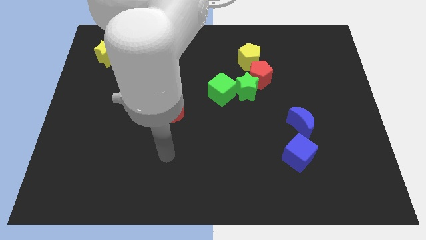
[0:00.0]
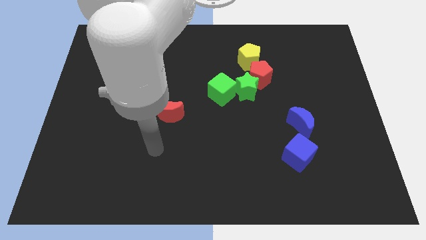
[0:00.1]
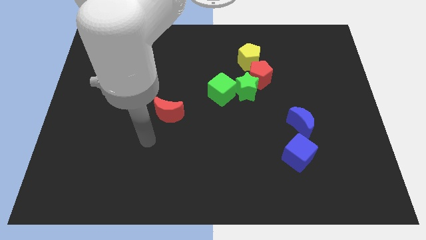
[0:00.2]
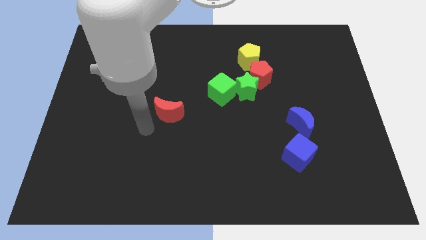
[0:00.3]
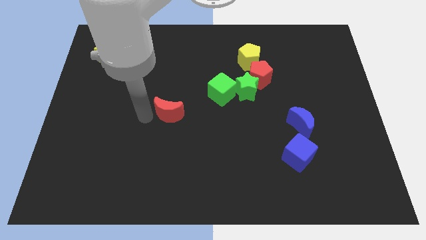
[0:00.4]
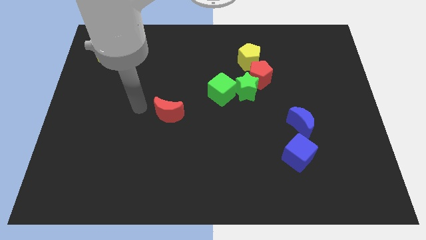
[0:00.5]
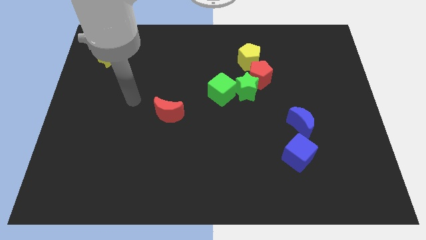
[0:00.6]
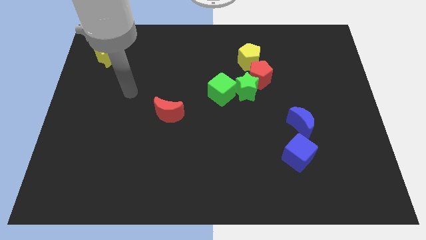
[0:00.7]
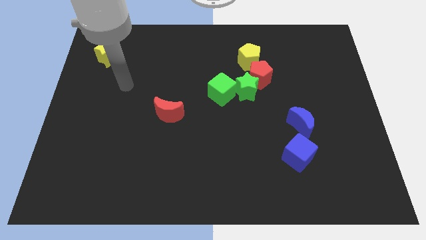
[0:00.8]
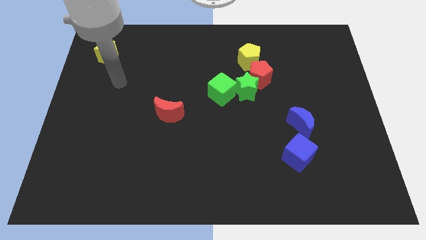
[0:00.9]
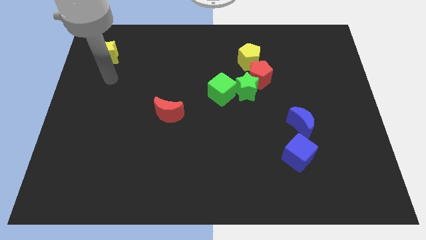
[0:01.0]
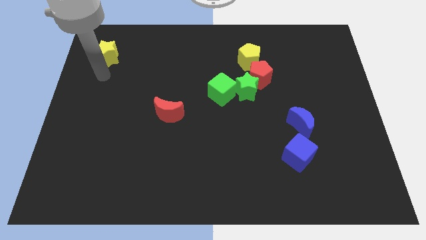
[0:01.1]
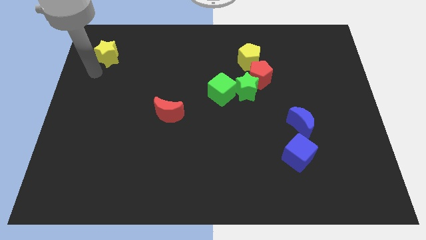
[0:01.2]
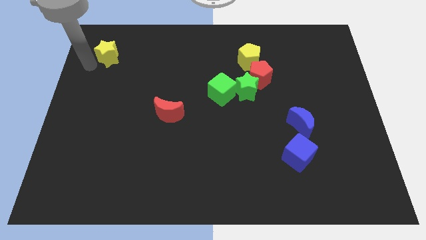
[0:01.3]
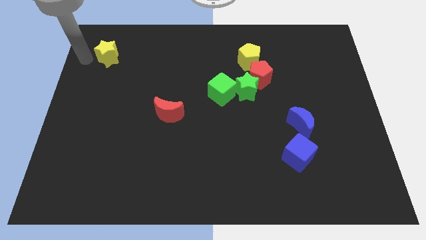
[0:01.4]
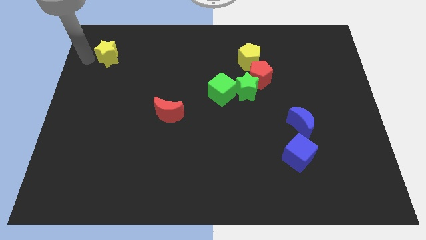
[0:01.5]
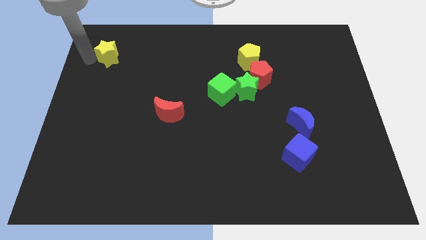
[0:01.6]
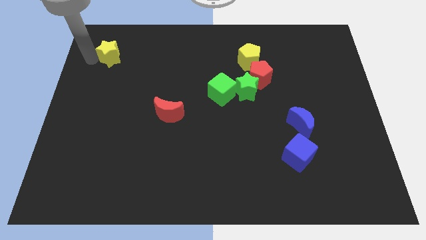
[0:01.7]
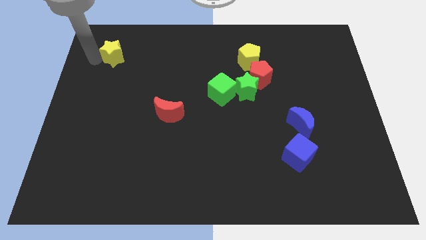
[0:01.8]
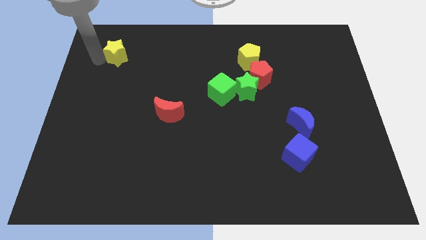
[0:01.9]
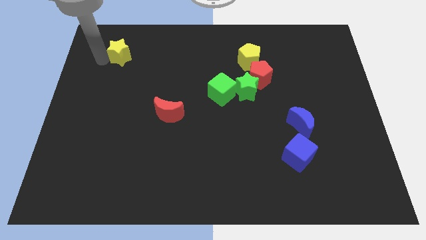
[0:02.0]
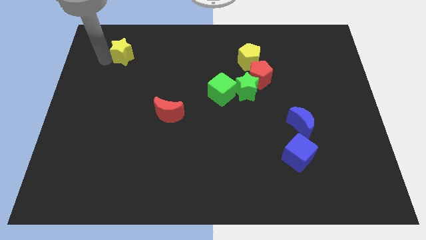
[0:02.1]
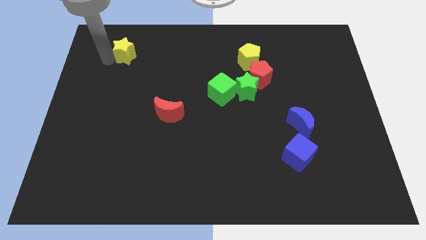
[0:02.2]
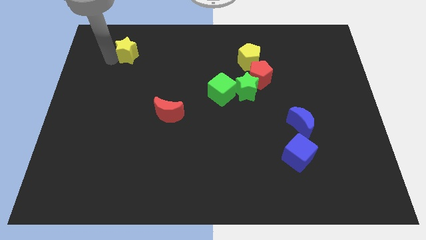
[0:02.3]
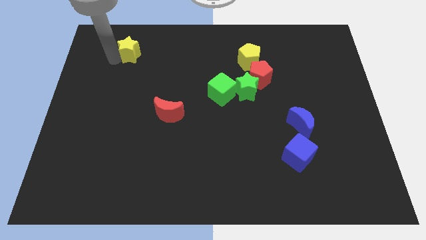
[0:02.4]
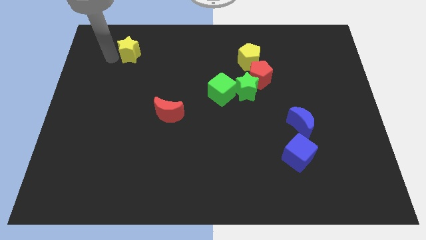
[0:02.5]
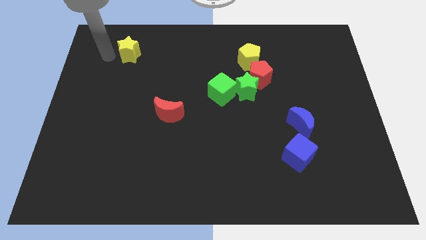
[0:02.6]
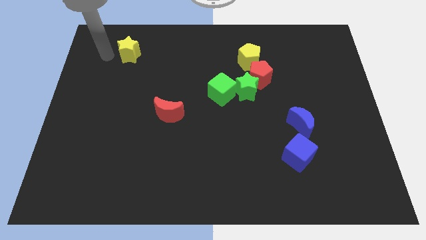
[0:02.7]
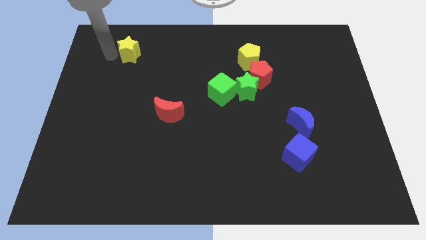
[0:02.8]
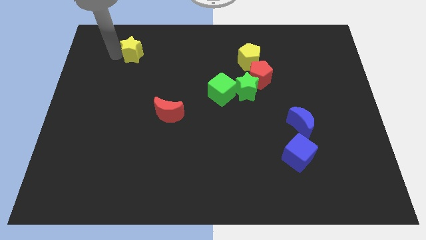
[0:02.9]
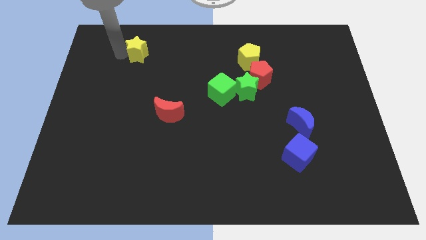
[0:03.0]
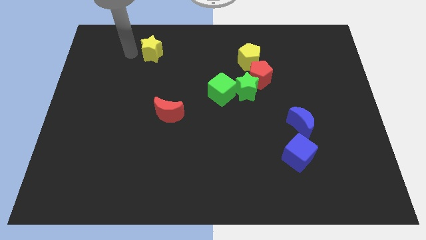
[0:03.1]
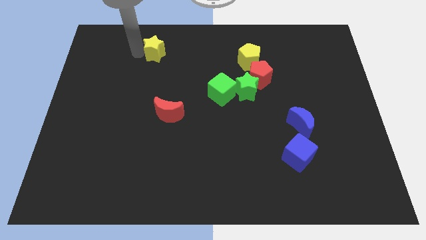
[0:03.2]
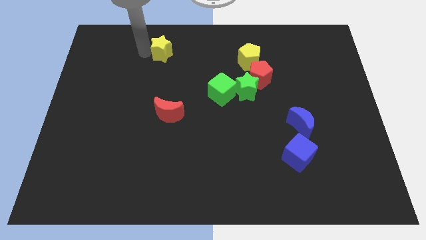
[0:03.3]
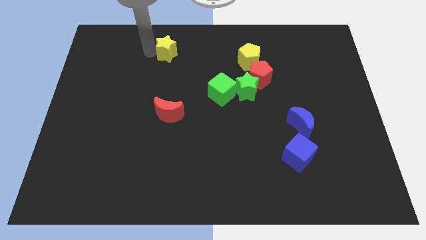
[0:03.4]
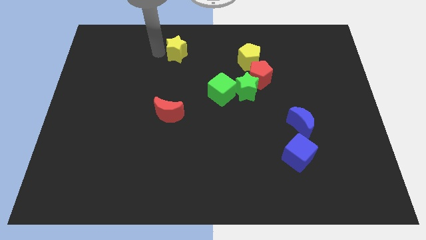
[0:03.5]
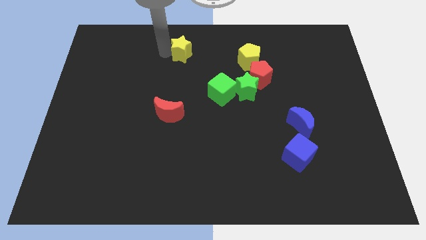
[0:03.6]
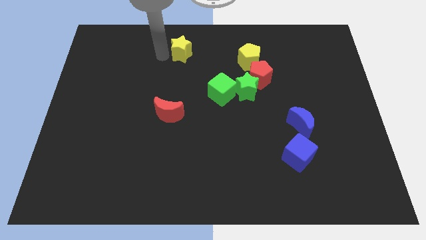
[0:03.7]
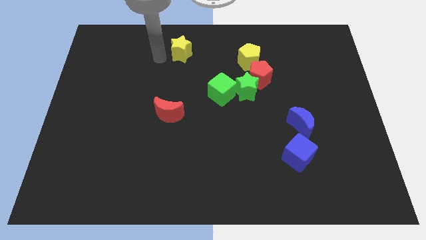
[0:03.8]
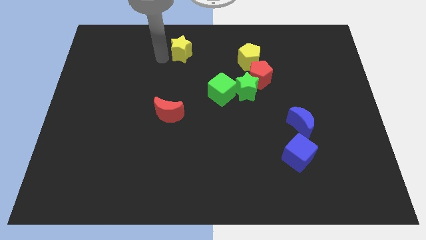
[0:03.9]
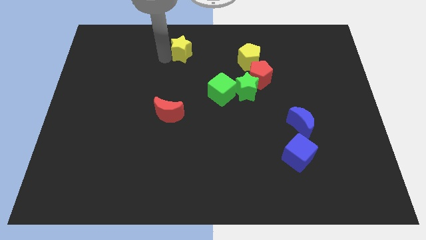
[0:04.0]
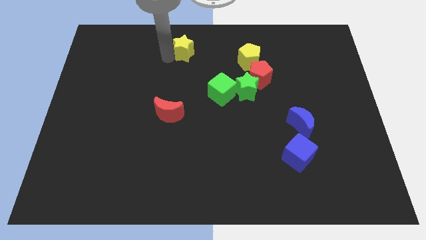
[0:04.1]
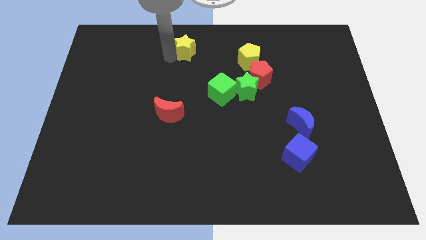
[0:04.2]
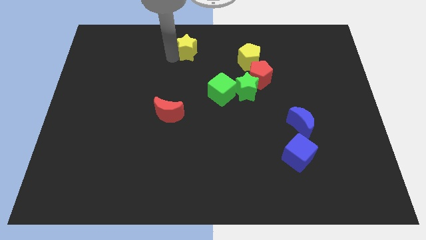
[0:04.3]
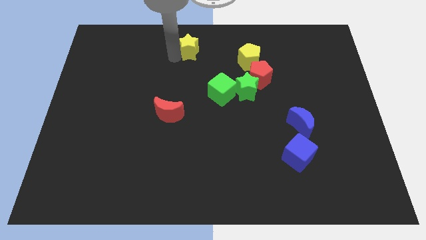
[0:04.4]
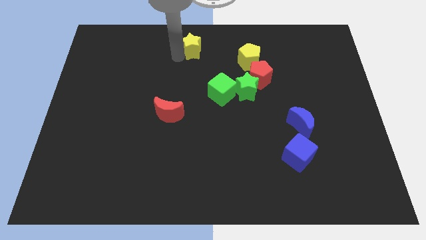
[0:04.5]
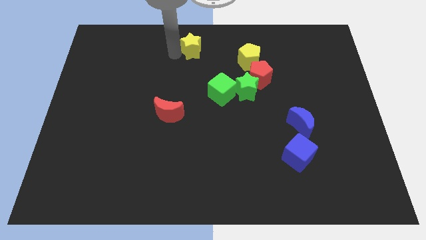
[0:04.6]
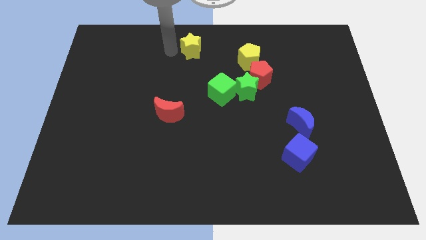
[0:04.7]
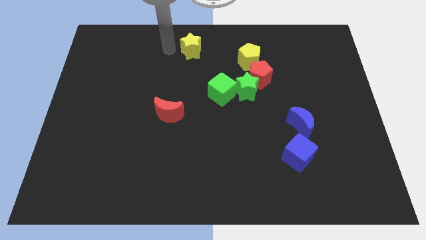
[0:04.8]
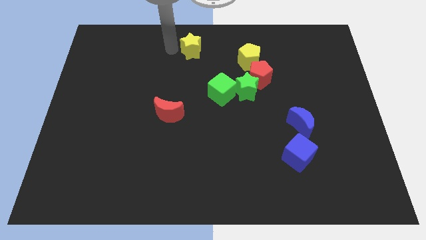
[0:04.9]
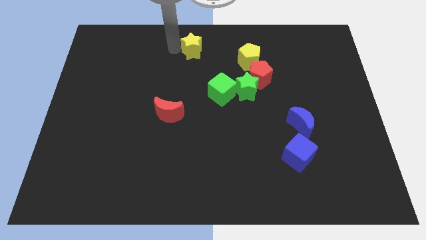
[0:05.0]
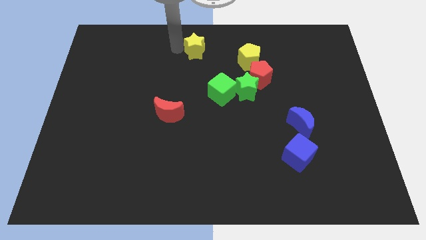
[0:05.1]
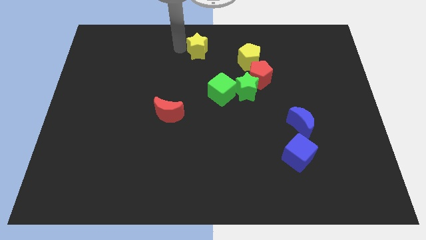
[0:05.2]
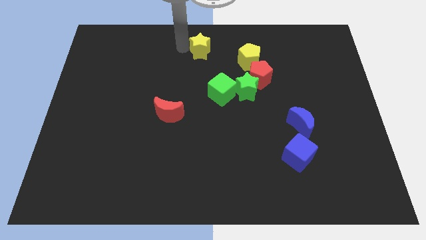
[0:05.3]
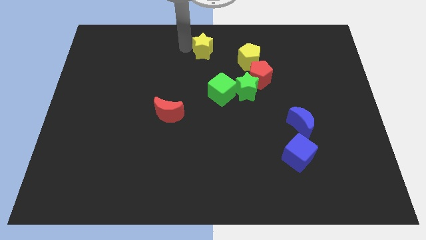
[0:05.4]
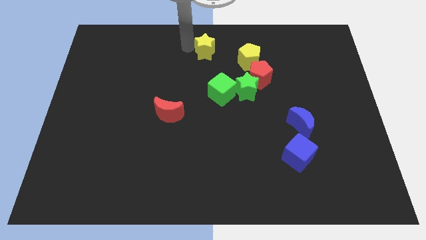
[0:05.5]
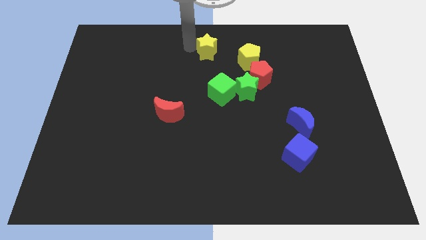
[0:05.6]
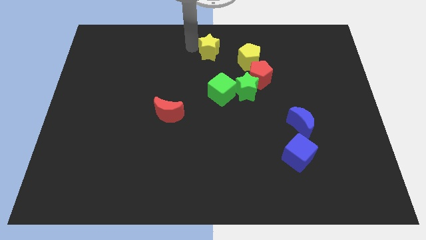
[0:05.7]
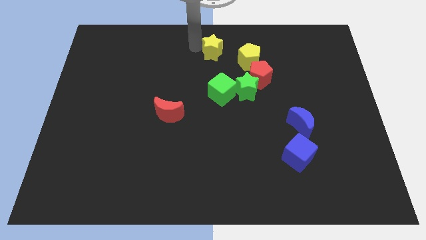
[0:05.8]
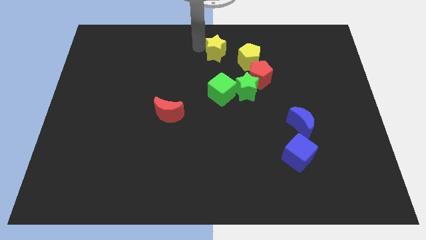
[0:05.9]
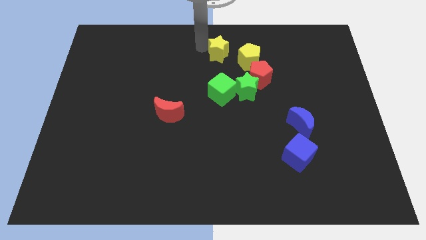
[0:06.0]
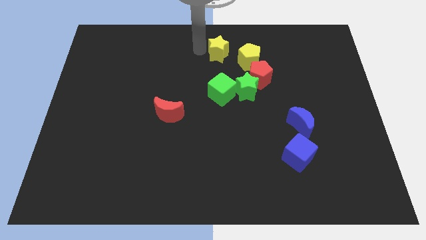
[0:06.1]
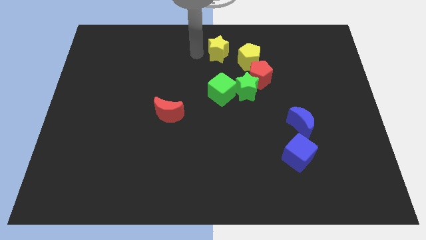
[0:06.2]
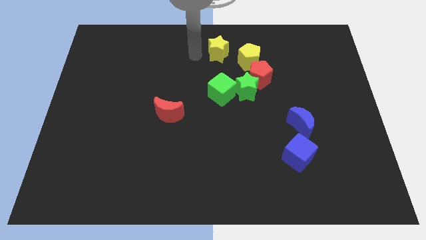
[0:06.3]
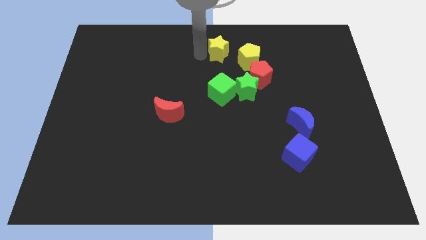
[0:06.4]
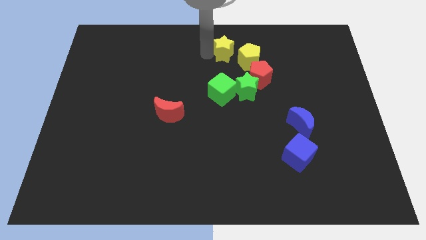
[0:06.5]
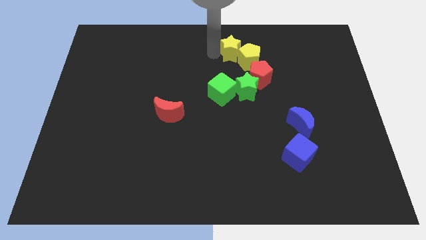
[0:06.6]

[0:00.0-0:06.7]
move the yellow star to the top side of the green star
